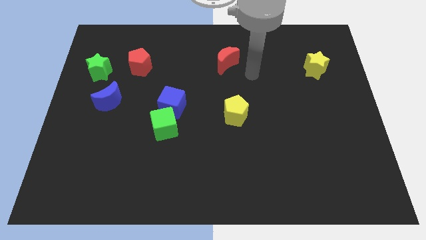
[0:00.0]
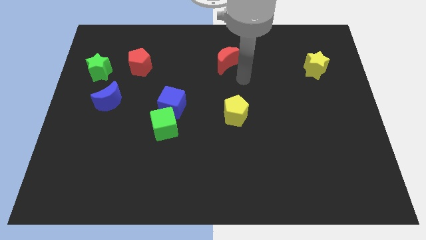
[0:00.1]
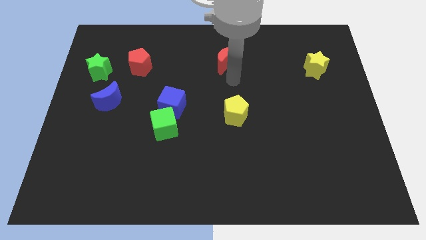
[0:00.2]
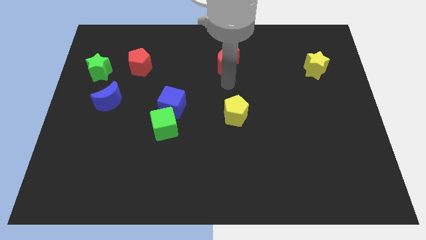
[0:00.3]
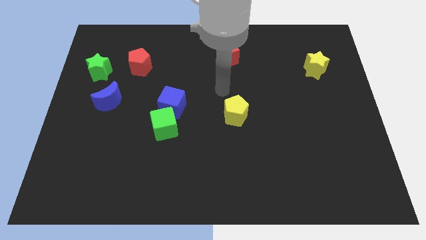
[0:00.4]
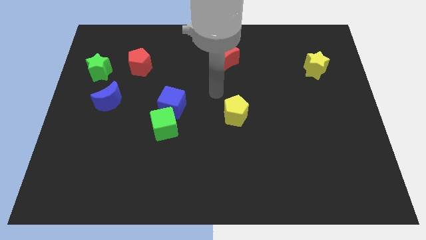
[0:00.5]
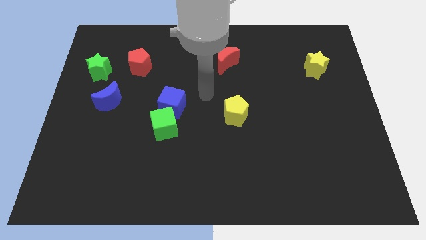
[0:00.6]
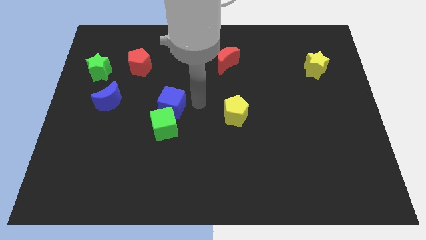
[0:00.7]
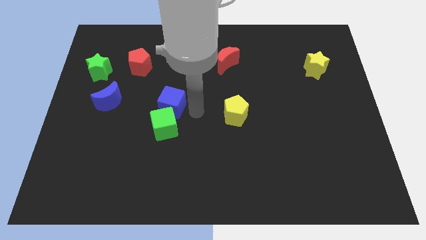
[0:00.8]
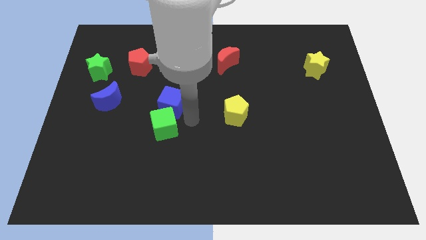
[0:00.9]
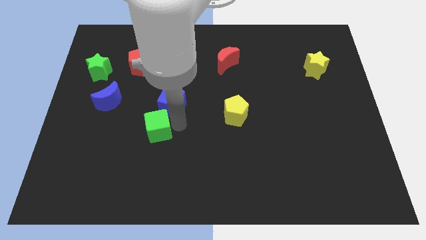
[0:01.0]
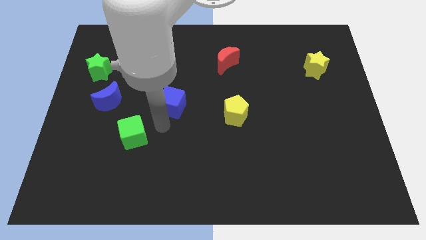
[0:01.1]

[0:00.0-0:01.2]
move the blue cube away from the green cube

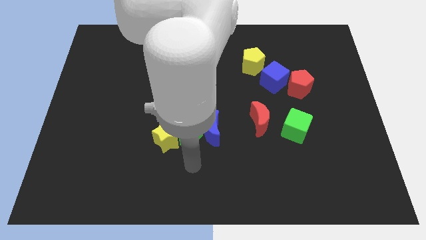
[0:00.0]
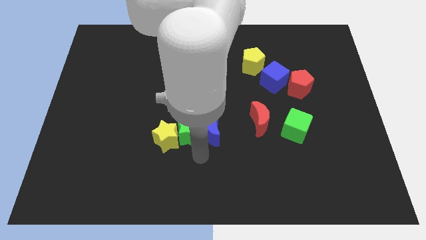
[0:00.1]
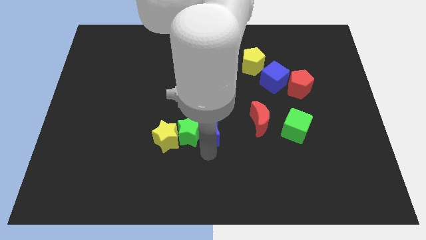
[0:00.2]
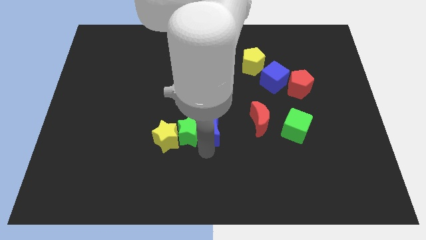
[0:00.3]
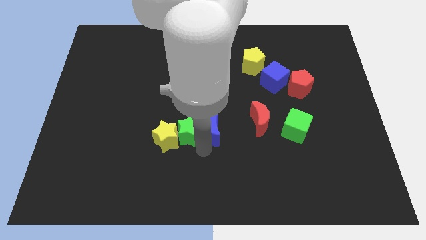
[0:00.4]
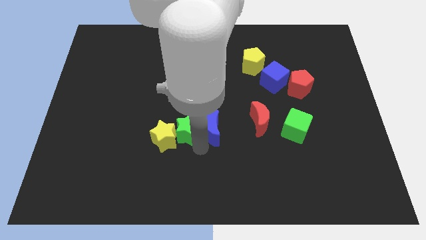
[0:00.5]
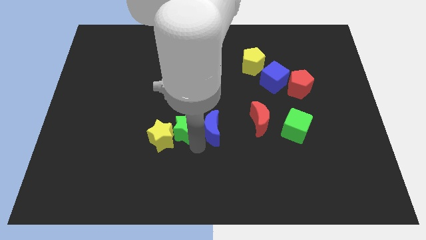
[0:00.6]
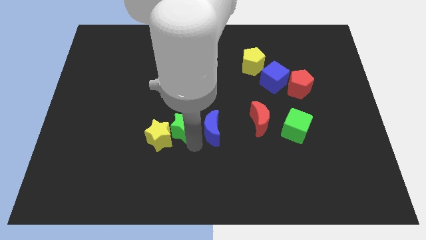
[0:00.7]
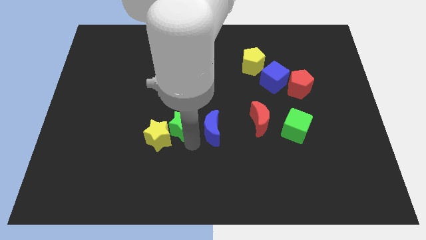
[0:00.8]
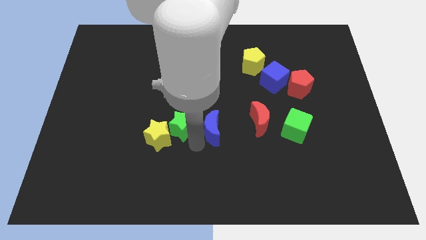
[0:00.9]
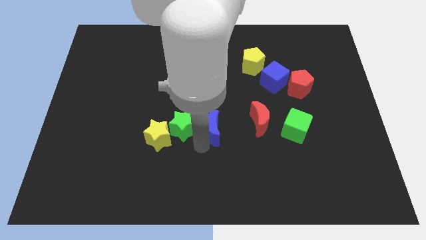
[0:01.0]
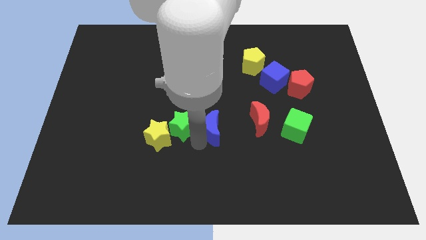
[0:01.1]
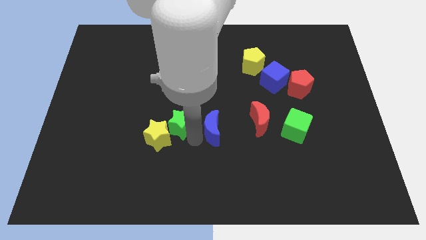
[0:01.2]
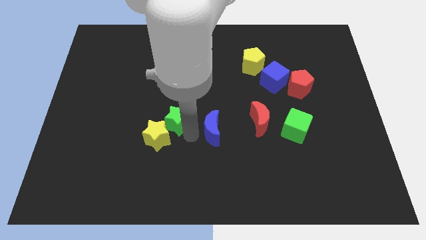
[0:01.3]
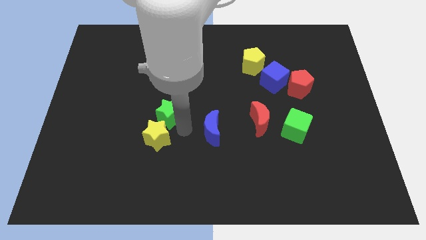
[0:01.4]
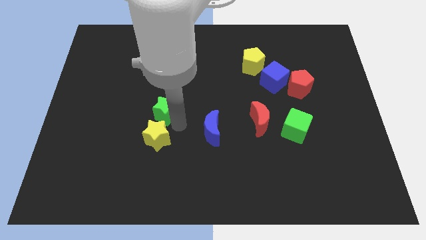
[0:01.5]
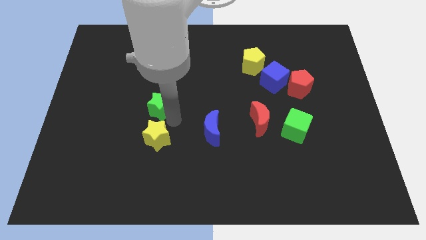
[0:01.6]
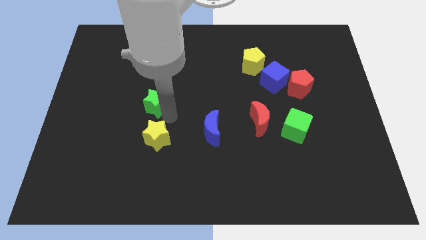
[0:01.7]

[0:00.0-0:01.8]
separate the green star from the yellow star and blue moon

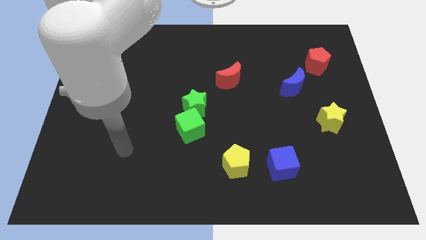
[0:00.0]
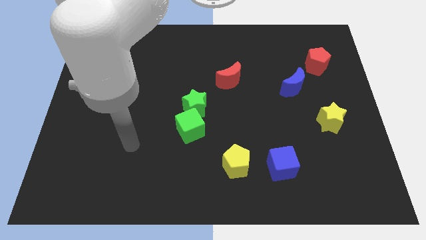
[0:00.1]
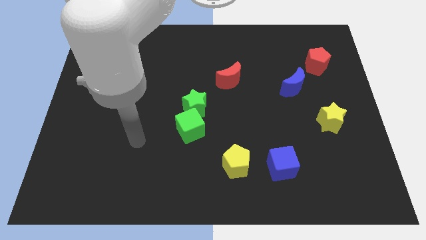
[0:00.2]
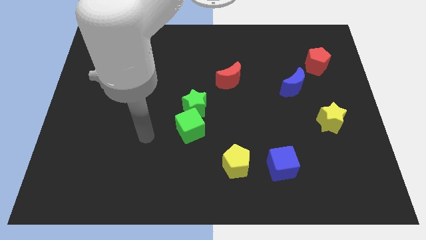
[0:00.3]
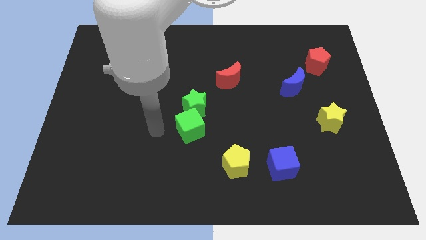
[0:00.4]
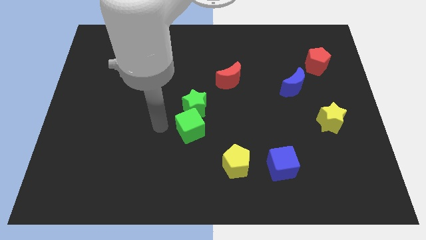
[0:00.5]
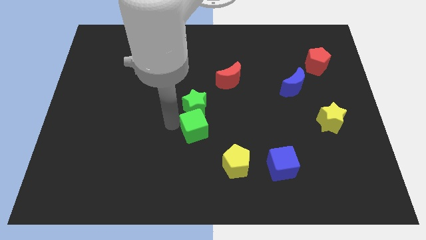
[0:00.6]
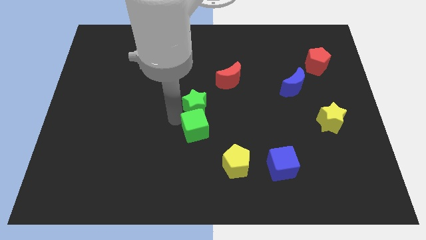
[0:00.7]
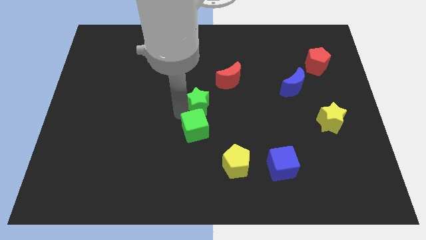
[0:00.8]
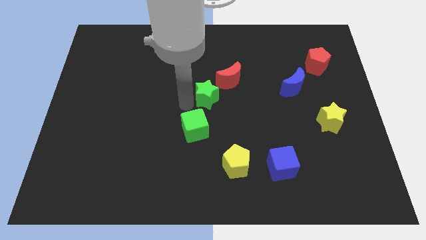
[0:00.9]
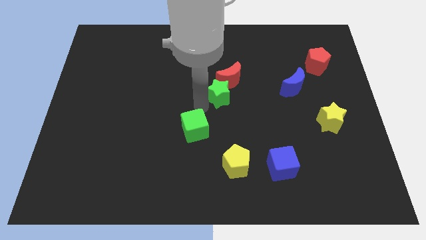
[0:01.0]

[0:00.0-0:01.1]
separate the green cube from the green star

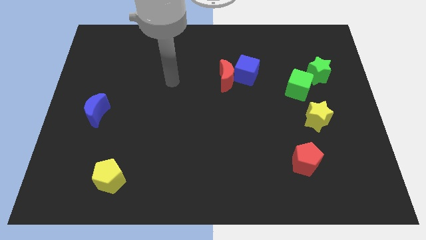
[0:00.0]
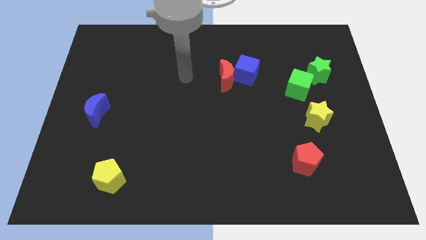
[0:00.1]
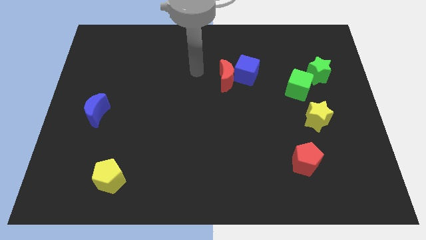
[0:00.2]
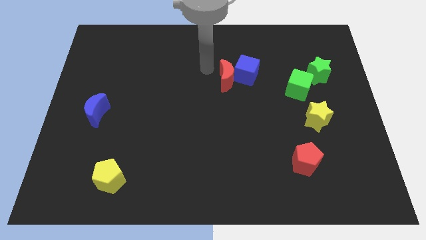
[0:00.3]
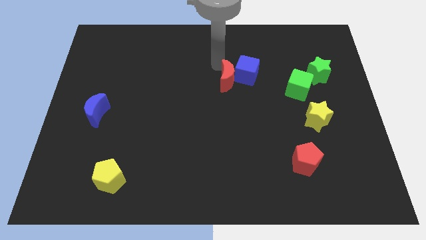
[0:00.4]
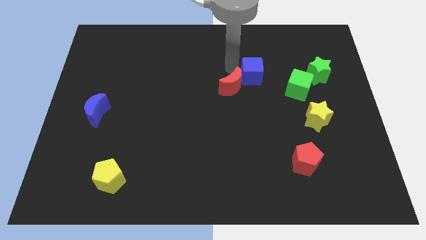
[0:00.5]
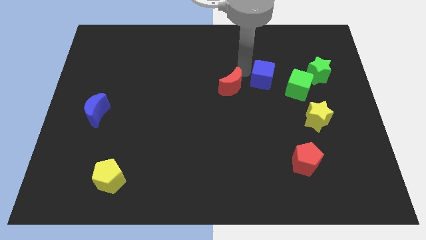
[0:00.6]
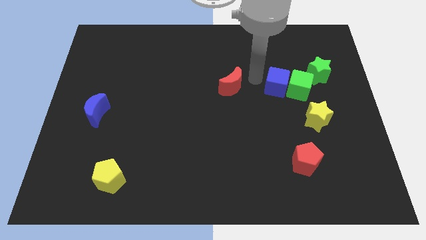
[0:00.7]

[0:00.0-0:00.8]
move the red moon away from the blue cube

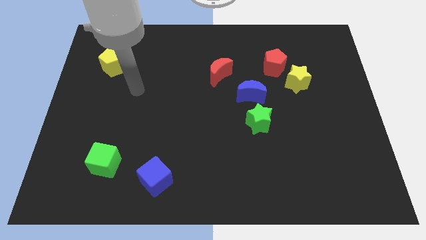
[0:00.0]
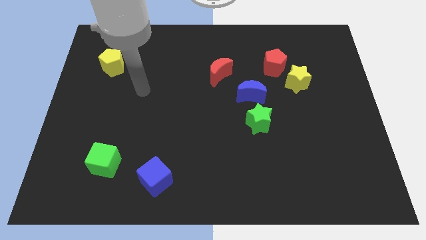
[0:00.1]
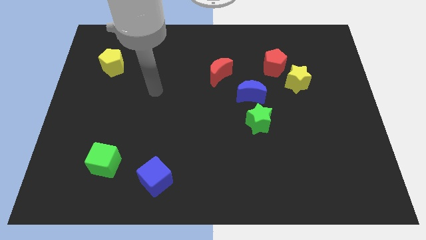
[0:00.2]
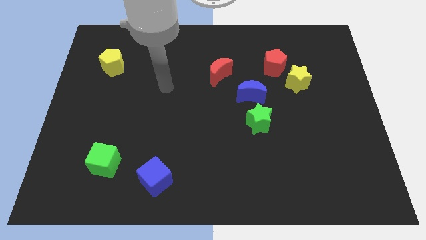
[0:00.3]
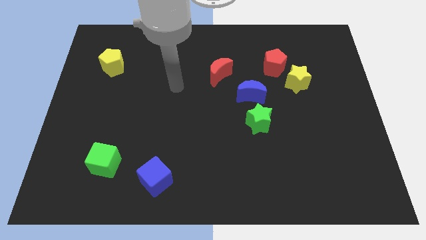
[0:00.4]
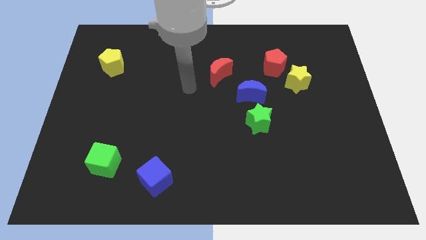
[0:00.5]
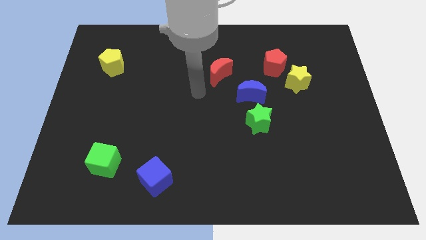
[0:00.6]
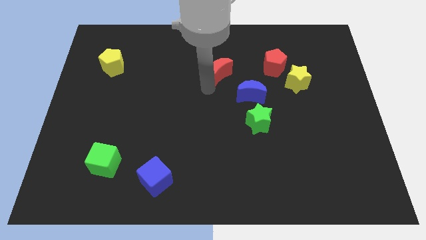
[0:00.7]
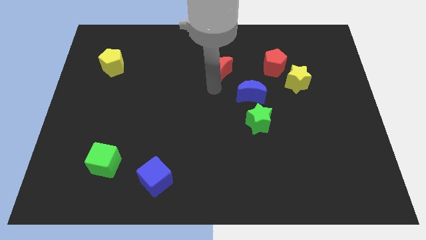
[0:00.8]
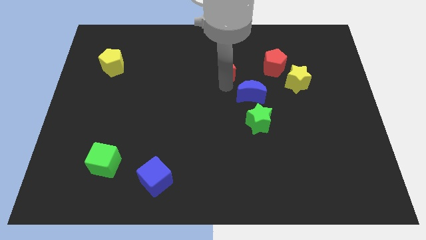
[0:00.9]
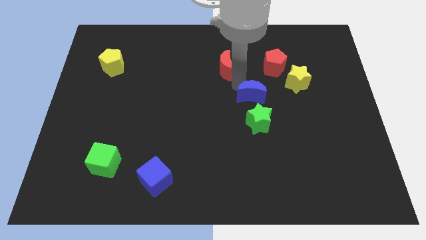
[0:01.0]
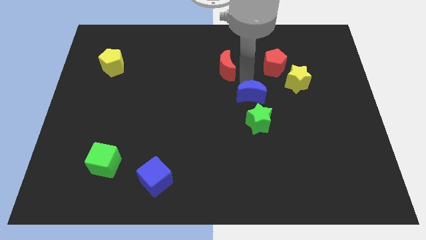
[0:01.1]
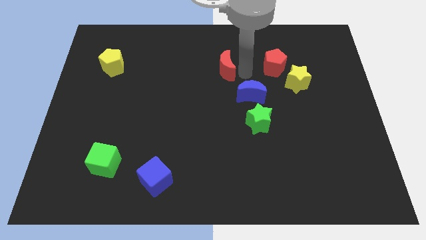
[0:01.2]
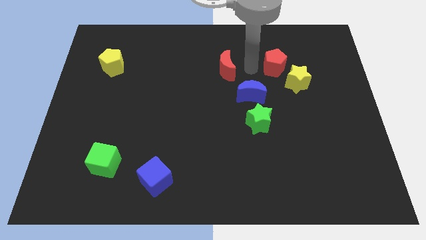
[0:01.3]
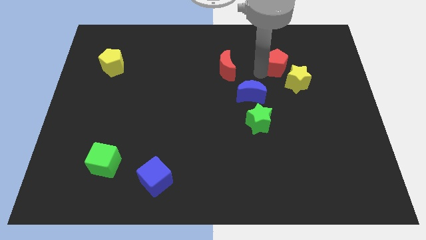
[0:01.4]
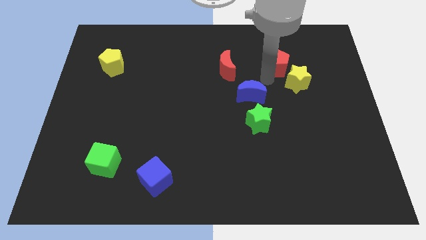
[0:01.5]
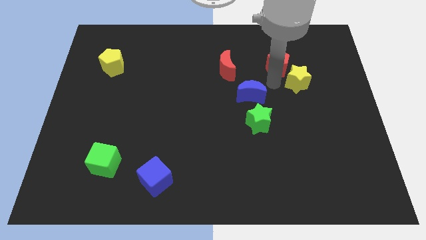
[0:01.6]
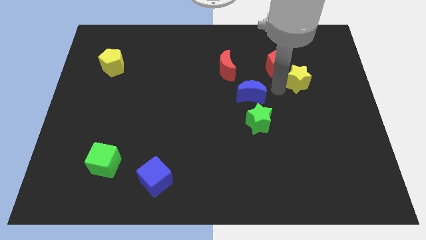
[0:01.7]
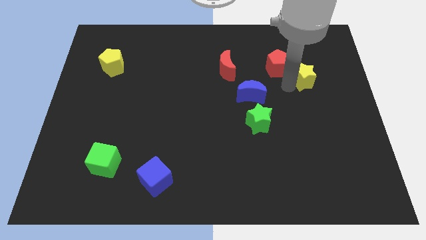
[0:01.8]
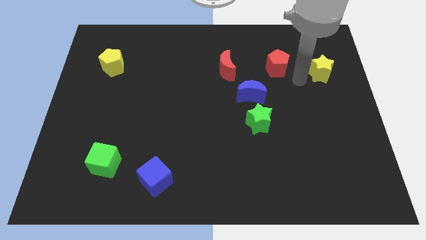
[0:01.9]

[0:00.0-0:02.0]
pull the red pentagon apart from the yellow star

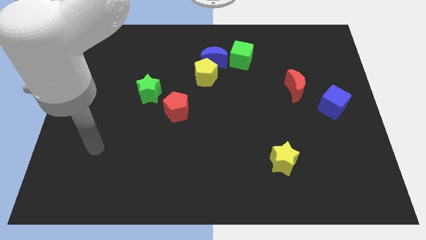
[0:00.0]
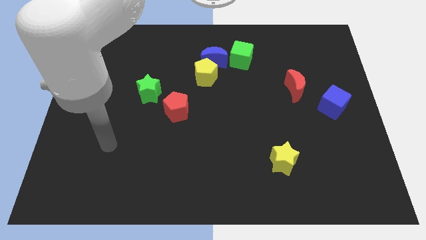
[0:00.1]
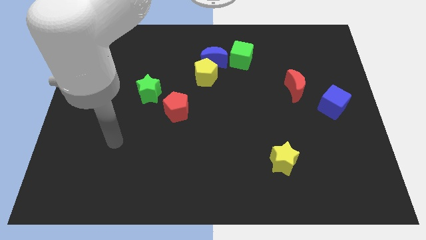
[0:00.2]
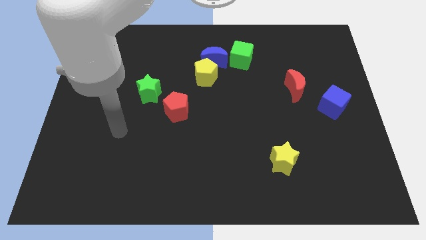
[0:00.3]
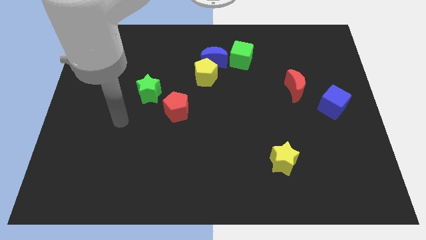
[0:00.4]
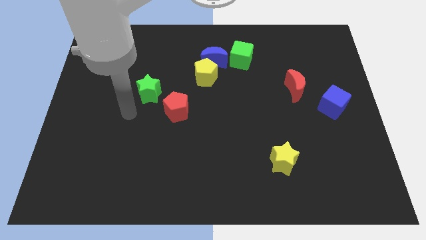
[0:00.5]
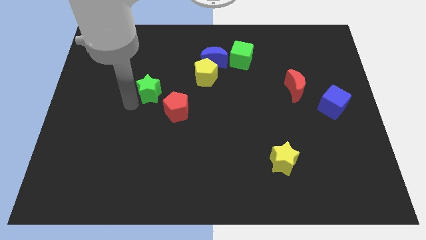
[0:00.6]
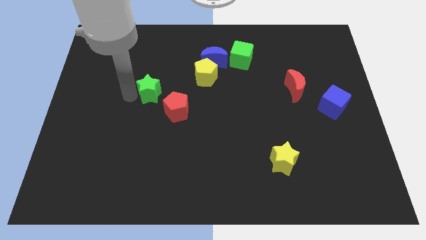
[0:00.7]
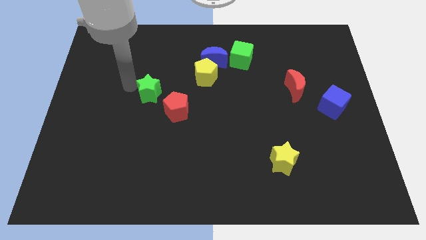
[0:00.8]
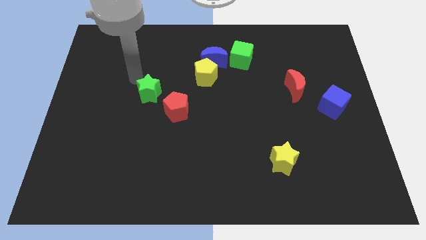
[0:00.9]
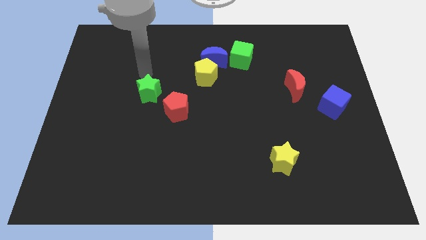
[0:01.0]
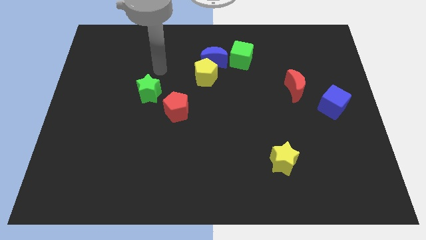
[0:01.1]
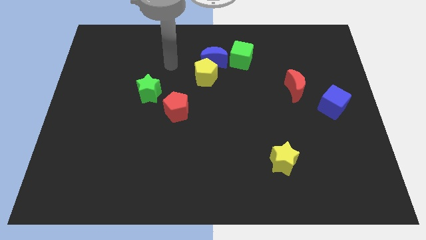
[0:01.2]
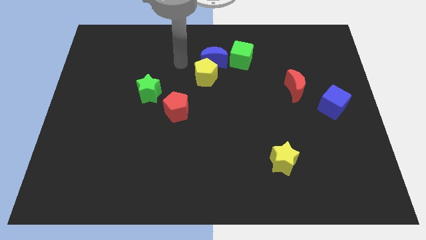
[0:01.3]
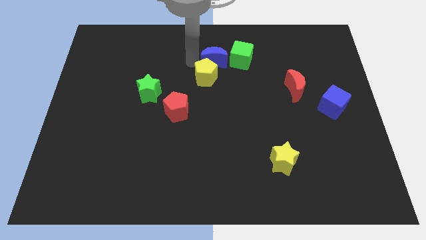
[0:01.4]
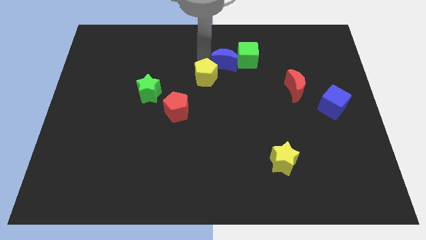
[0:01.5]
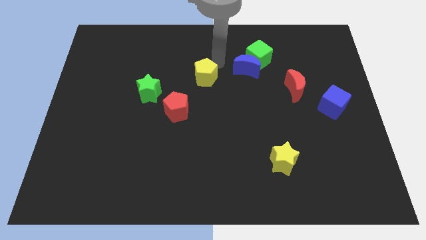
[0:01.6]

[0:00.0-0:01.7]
pull the yellow pentagon apart from the blue moon

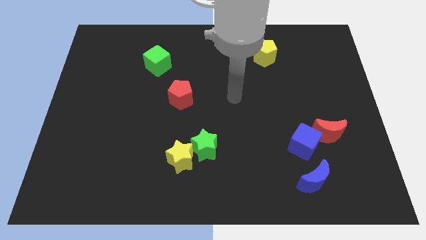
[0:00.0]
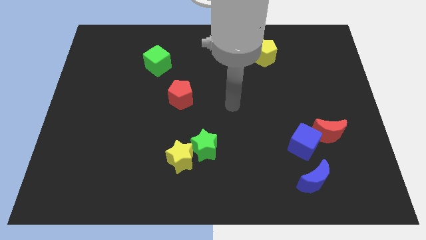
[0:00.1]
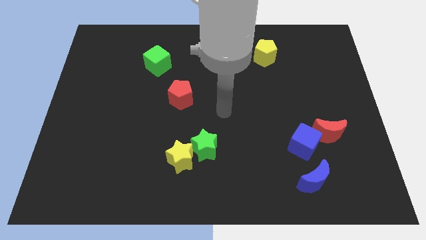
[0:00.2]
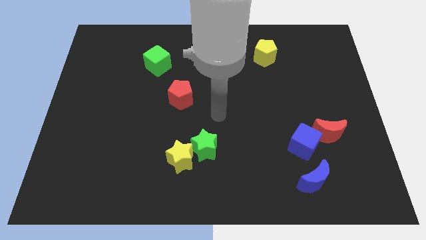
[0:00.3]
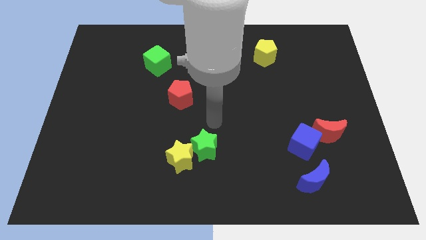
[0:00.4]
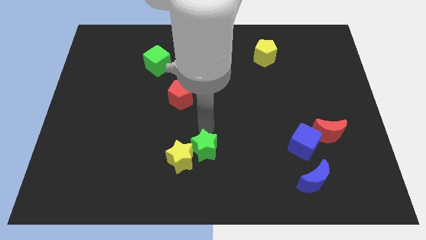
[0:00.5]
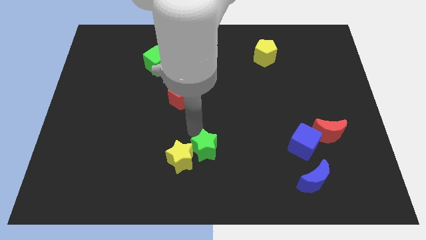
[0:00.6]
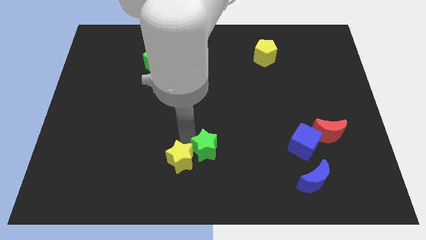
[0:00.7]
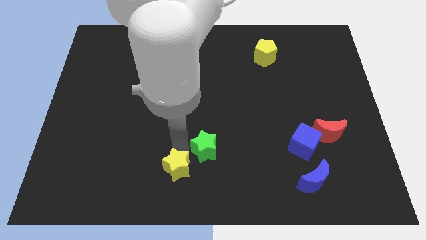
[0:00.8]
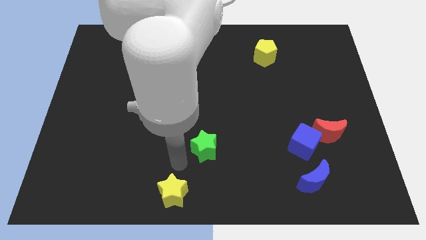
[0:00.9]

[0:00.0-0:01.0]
move the green star away from the yellow star
